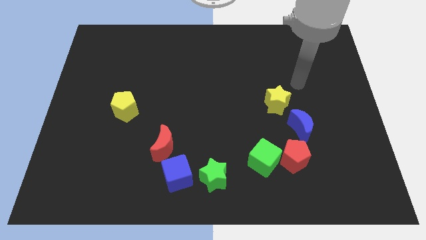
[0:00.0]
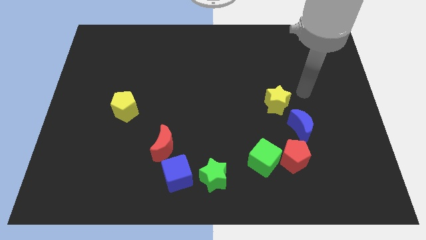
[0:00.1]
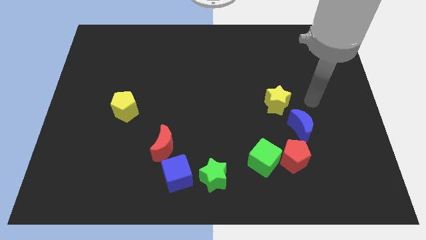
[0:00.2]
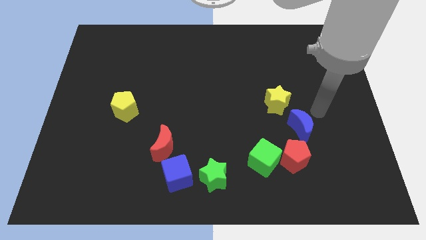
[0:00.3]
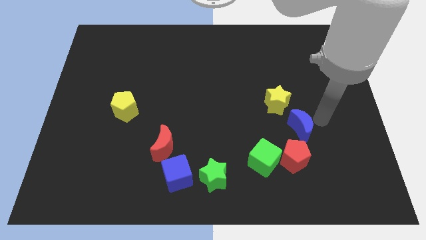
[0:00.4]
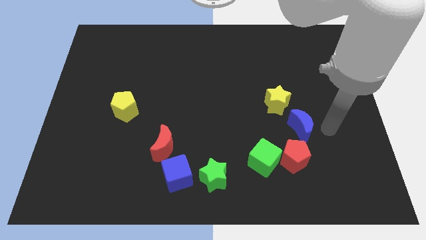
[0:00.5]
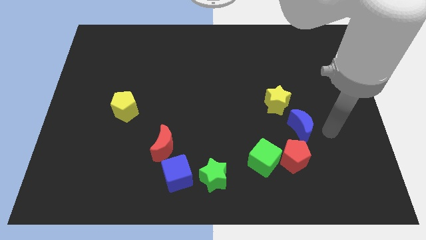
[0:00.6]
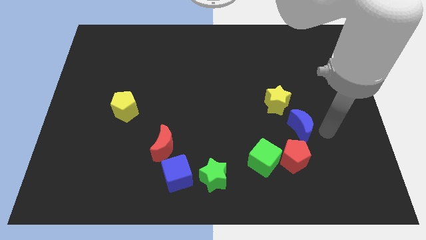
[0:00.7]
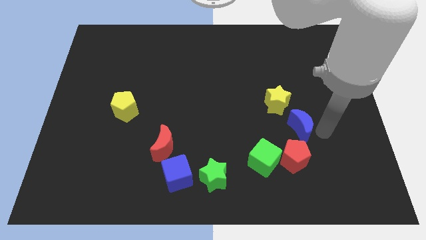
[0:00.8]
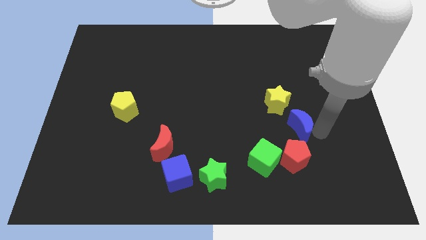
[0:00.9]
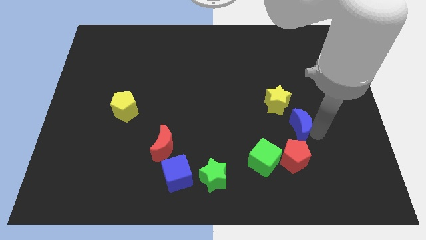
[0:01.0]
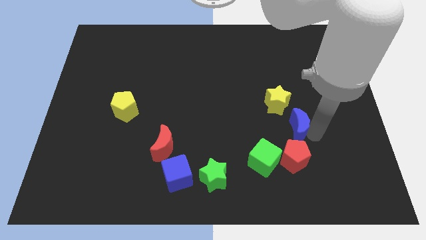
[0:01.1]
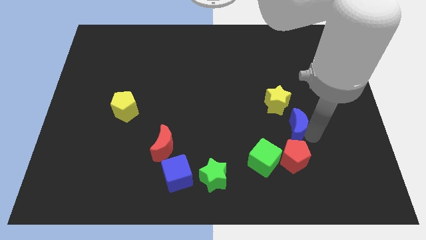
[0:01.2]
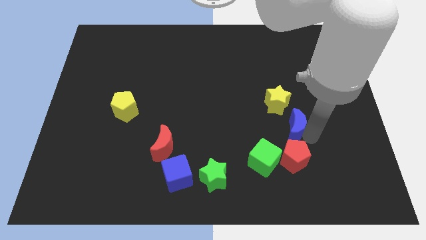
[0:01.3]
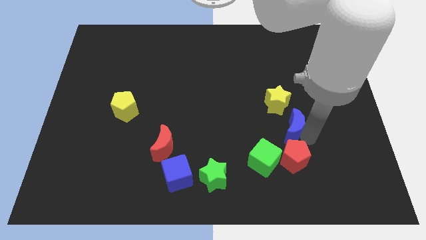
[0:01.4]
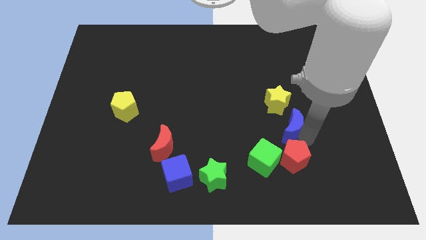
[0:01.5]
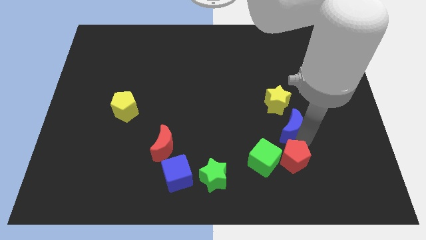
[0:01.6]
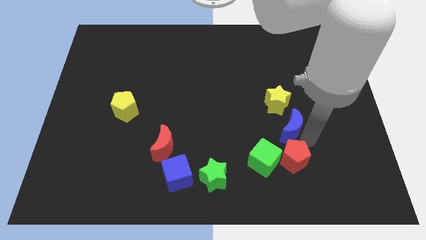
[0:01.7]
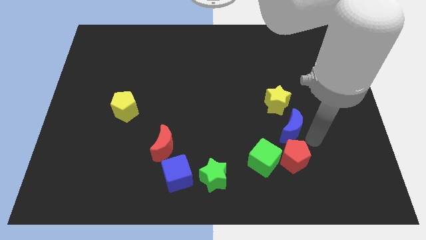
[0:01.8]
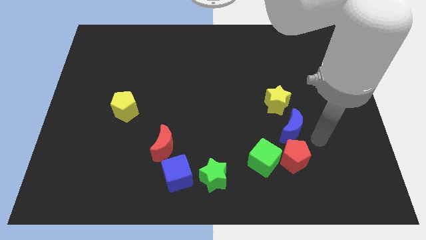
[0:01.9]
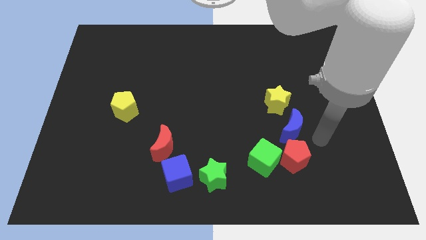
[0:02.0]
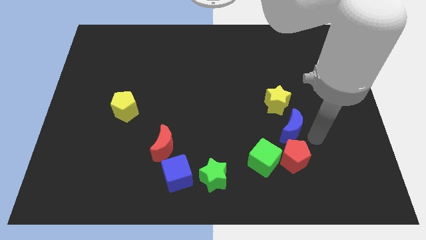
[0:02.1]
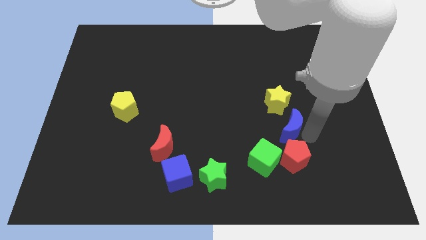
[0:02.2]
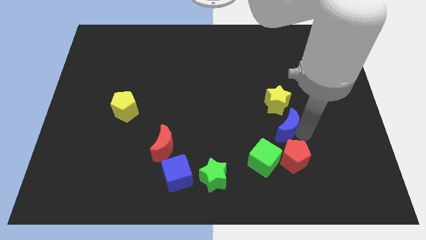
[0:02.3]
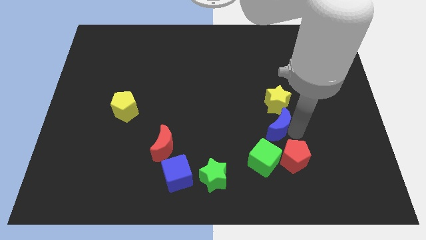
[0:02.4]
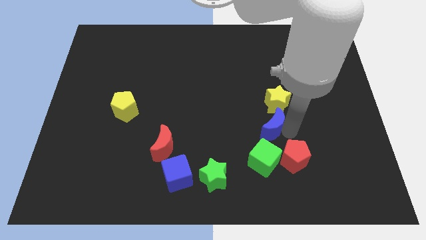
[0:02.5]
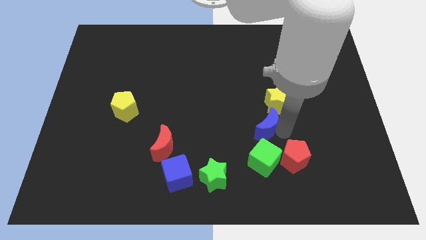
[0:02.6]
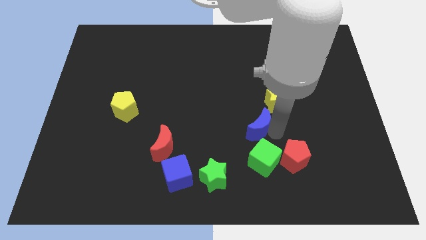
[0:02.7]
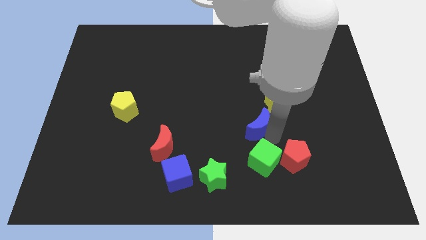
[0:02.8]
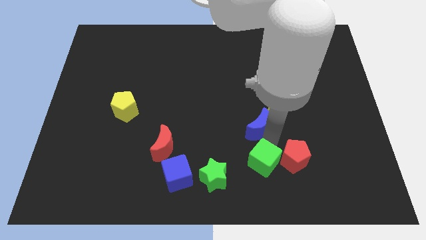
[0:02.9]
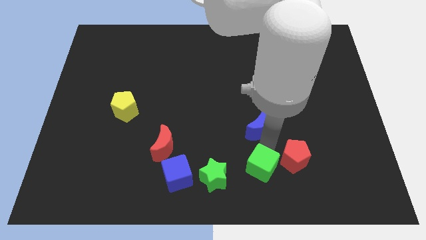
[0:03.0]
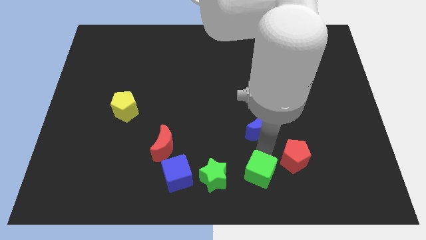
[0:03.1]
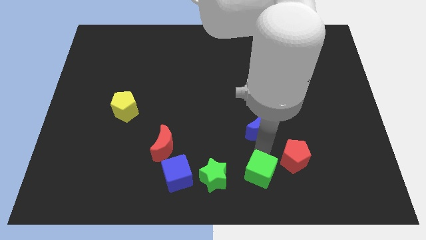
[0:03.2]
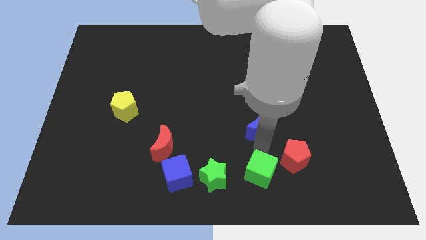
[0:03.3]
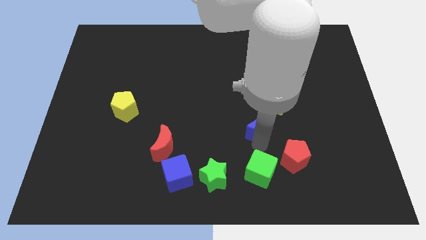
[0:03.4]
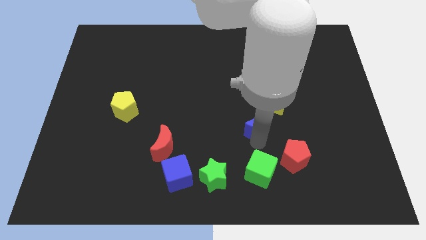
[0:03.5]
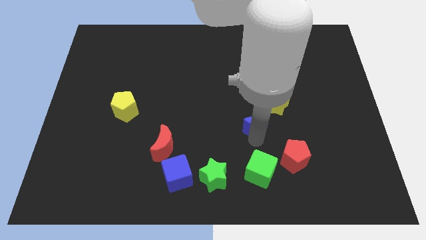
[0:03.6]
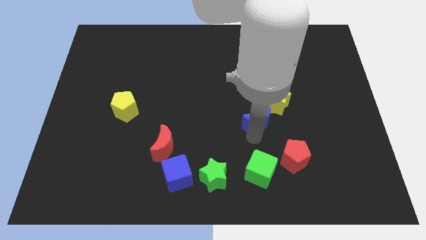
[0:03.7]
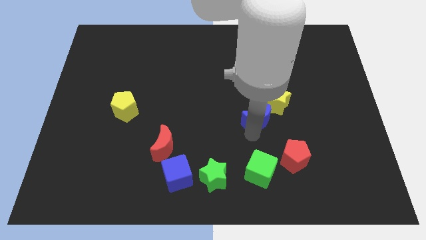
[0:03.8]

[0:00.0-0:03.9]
slide the blue moon diagonally upwards and left a little bit

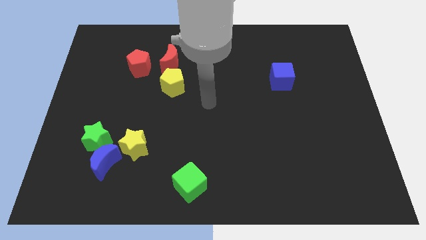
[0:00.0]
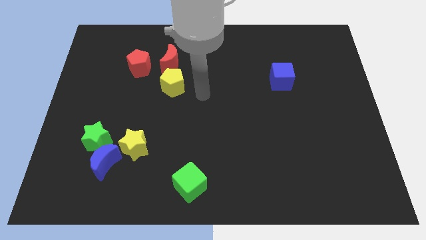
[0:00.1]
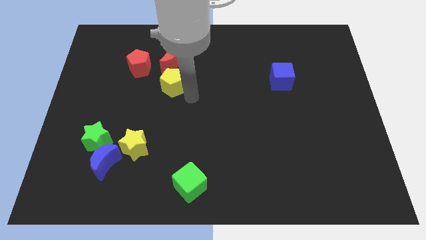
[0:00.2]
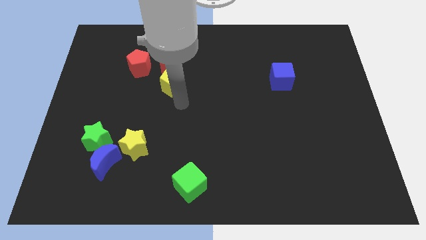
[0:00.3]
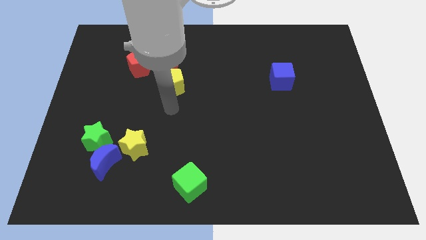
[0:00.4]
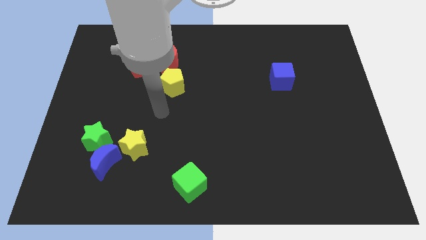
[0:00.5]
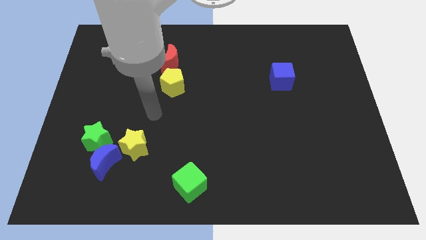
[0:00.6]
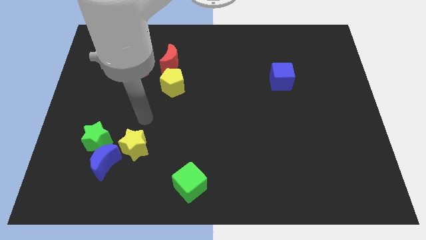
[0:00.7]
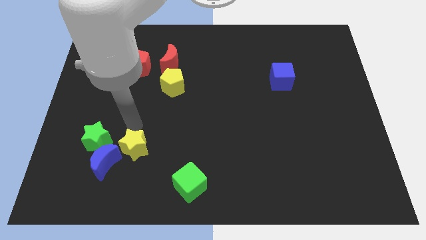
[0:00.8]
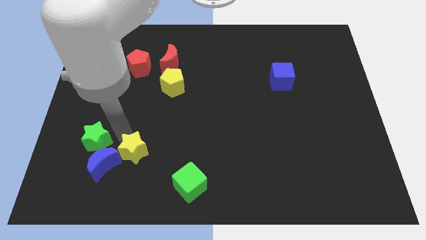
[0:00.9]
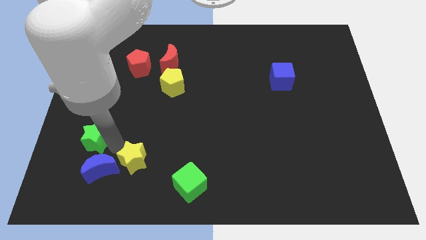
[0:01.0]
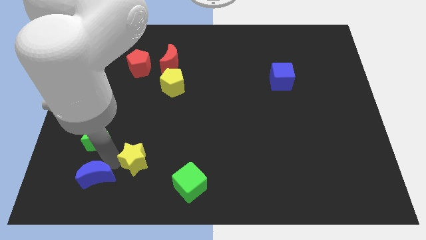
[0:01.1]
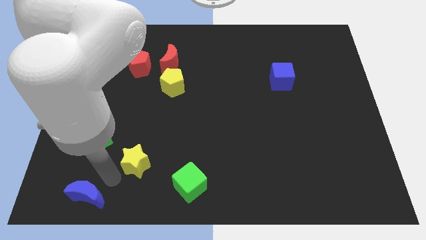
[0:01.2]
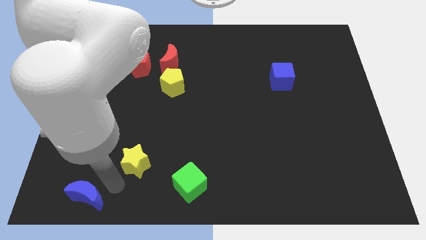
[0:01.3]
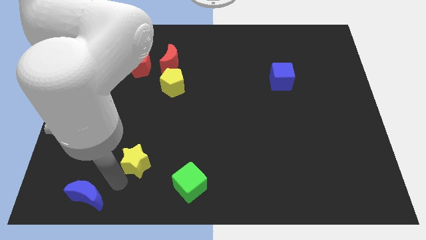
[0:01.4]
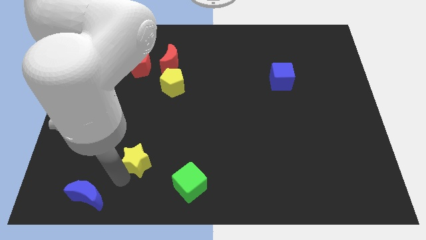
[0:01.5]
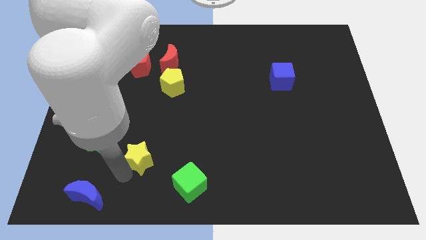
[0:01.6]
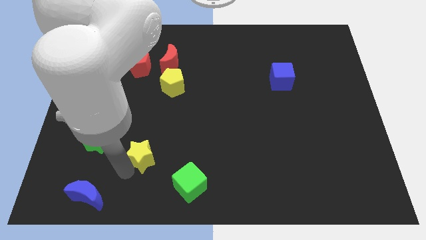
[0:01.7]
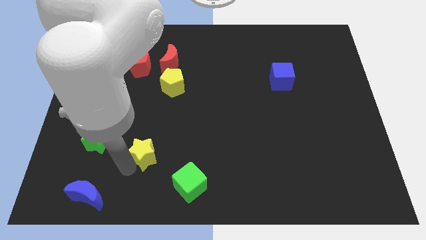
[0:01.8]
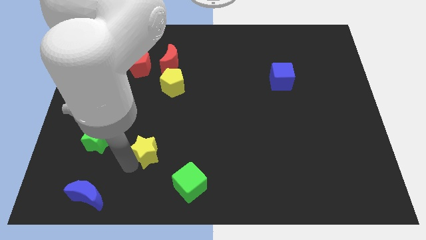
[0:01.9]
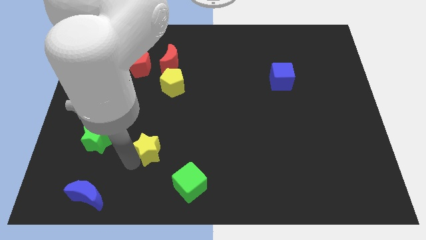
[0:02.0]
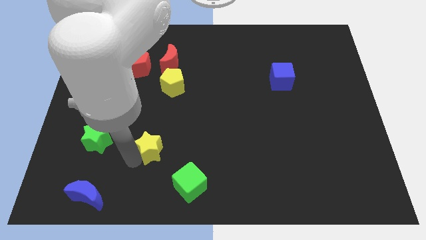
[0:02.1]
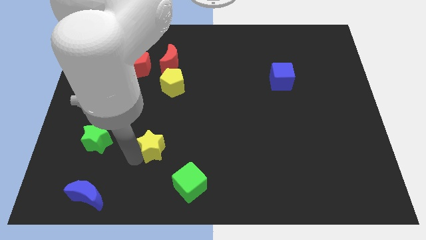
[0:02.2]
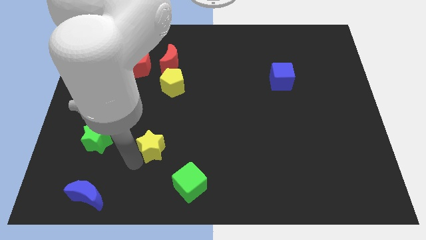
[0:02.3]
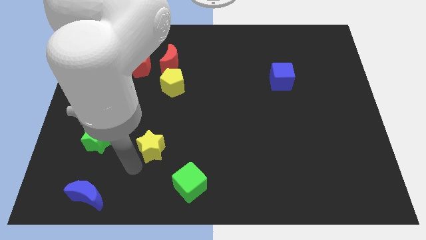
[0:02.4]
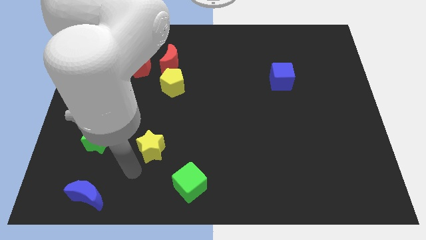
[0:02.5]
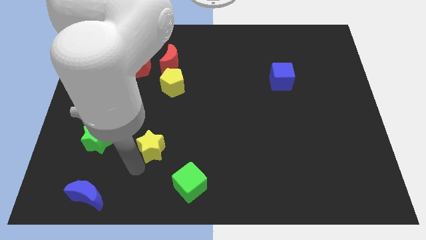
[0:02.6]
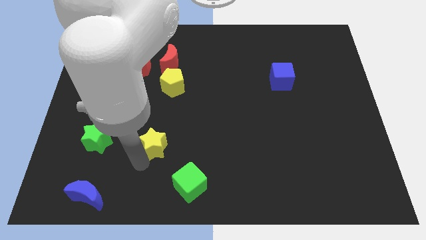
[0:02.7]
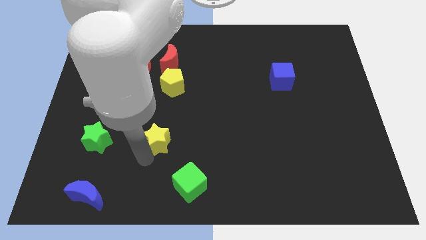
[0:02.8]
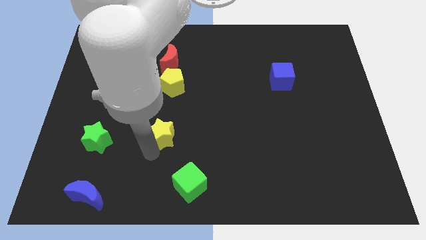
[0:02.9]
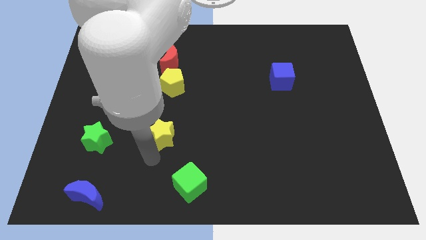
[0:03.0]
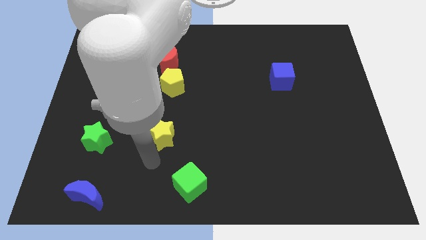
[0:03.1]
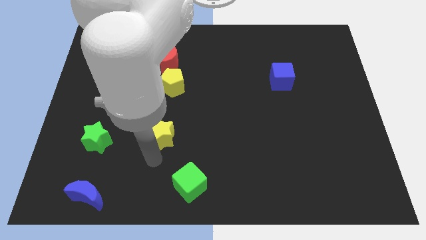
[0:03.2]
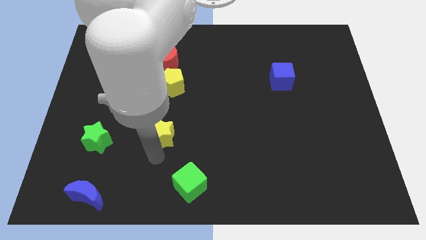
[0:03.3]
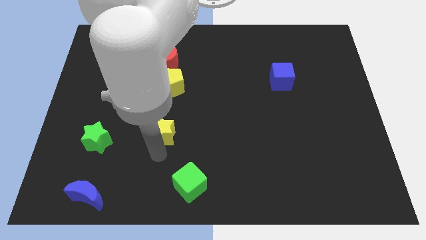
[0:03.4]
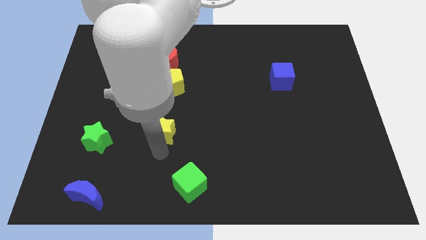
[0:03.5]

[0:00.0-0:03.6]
move the yellow star a little diagonally up and right

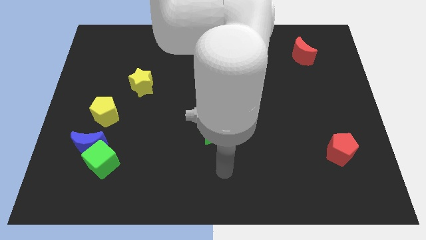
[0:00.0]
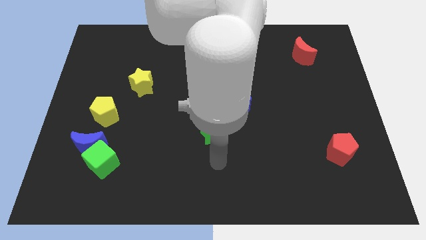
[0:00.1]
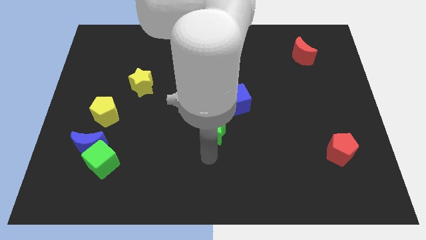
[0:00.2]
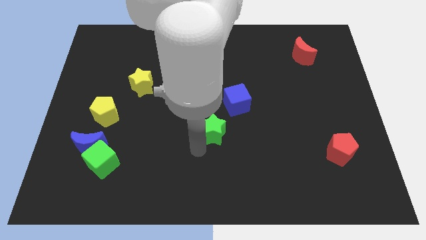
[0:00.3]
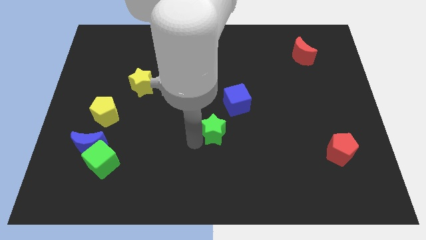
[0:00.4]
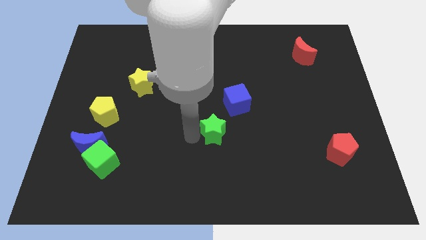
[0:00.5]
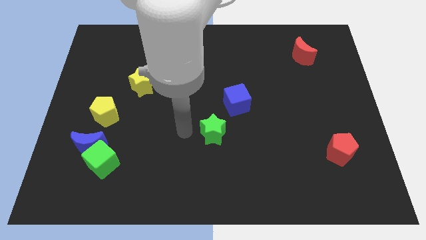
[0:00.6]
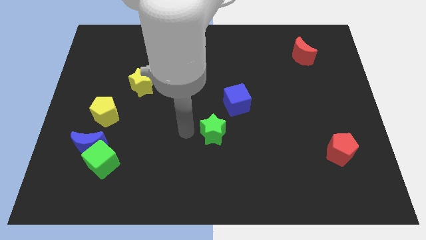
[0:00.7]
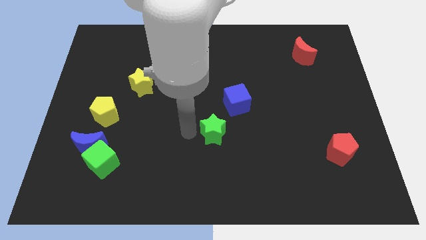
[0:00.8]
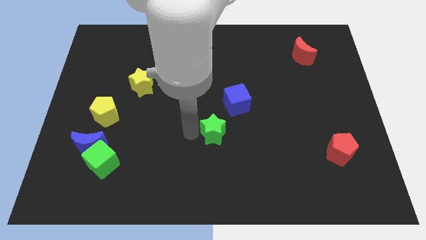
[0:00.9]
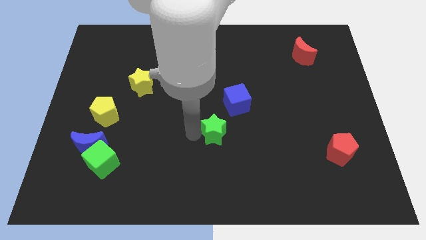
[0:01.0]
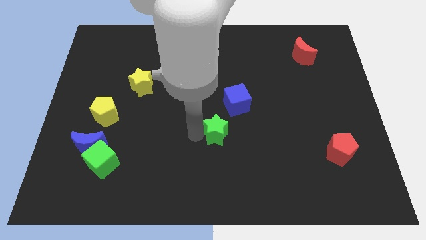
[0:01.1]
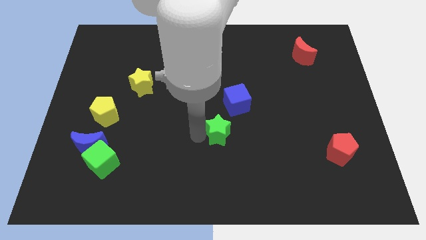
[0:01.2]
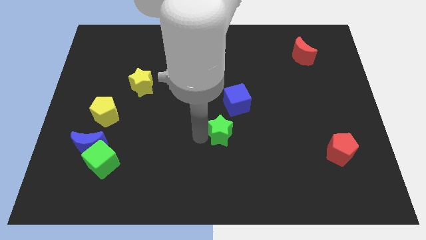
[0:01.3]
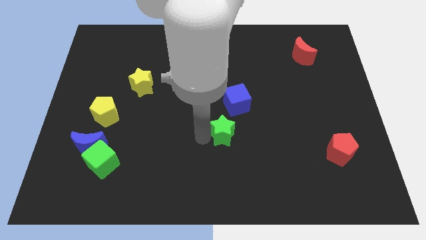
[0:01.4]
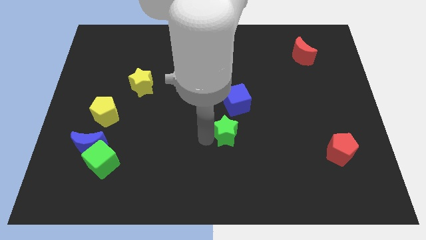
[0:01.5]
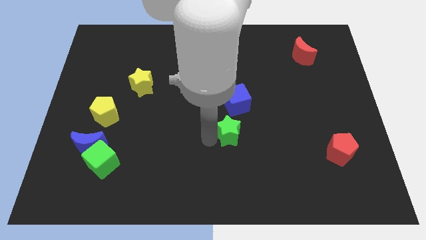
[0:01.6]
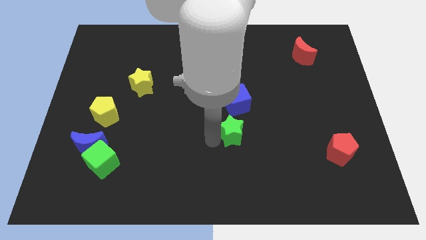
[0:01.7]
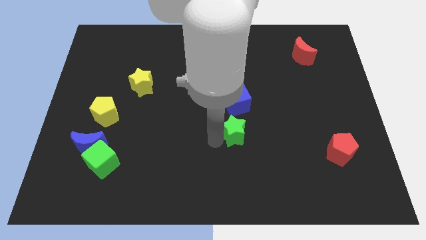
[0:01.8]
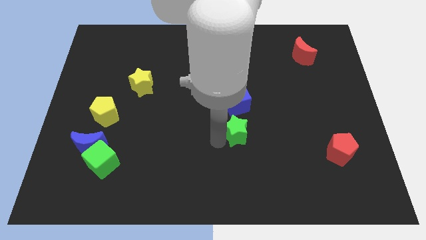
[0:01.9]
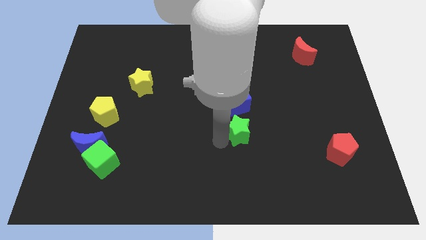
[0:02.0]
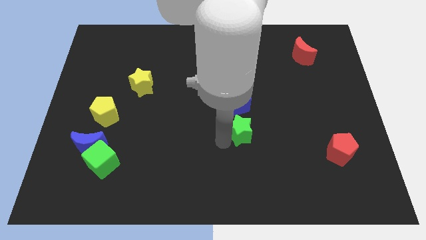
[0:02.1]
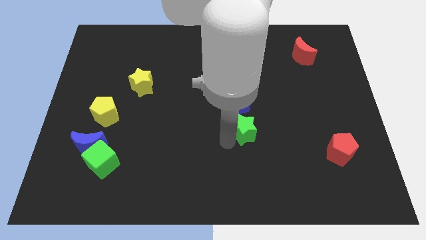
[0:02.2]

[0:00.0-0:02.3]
push the green star to the right a little bit
